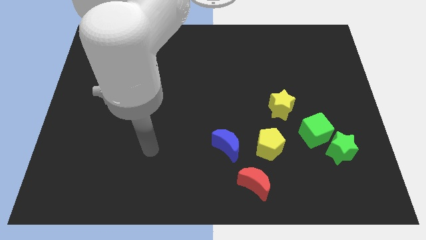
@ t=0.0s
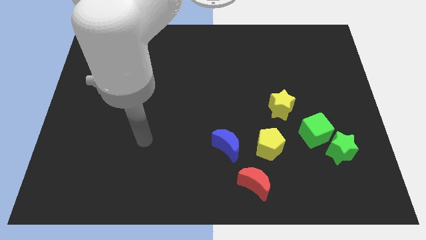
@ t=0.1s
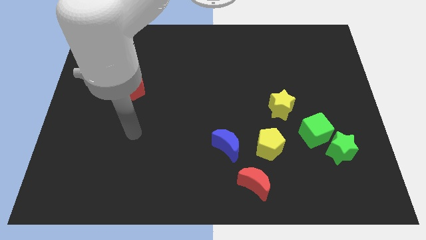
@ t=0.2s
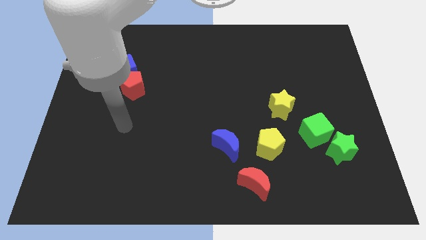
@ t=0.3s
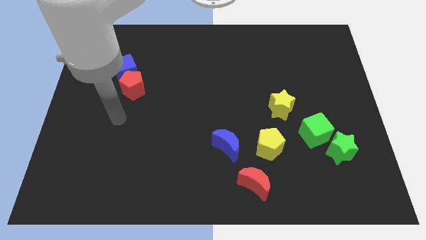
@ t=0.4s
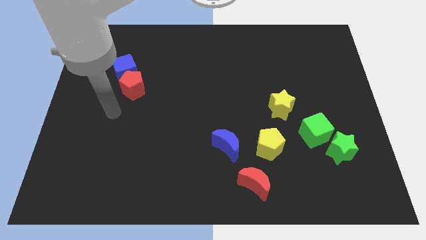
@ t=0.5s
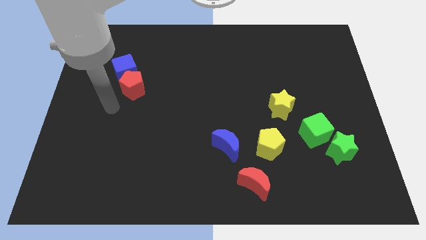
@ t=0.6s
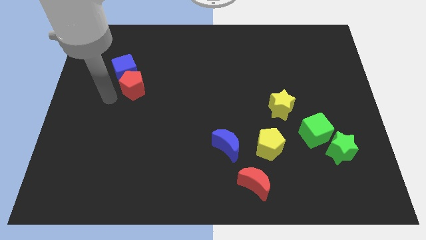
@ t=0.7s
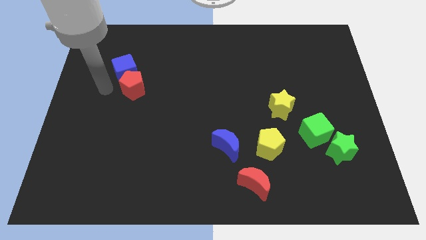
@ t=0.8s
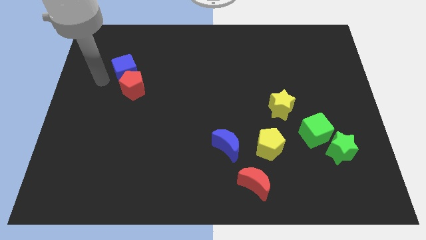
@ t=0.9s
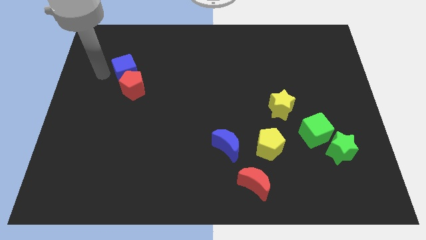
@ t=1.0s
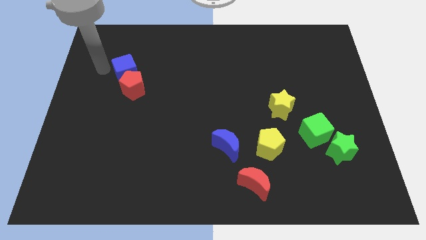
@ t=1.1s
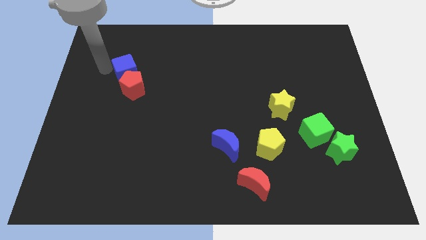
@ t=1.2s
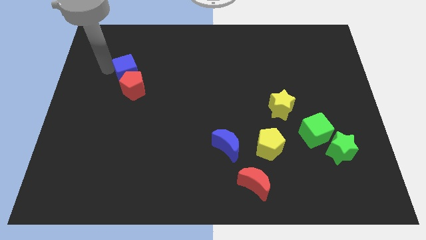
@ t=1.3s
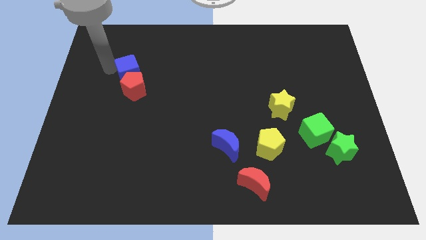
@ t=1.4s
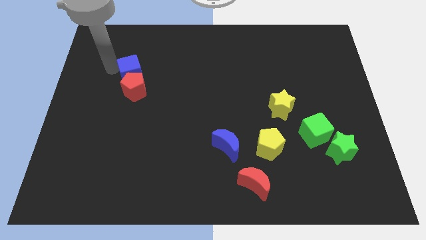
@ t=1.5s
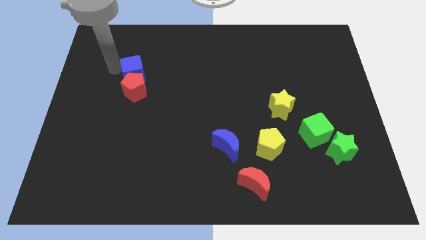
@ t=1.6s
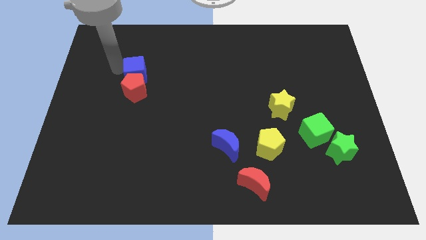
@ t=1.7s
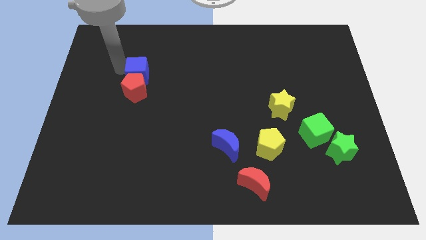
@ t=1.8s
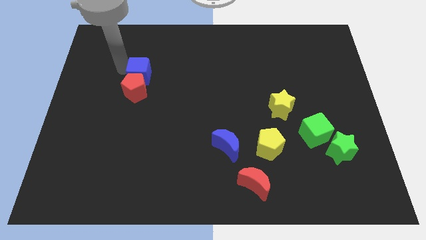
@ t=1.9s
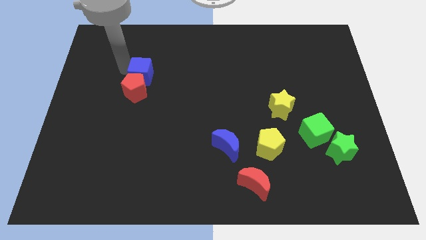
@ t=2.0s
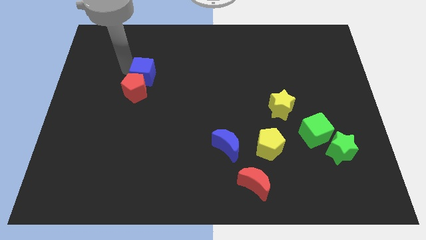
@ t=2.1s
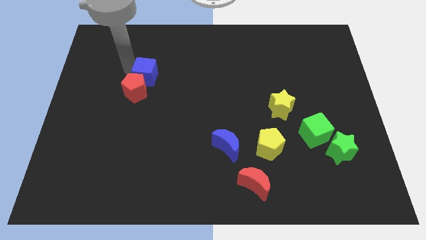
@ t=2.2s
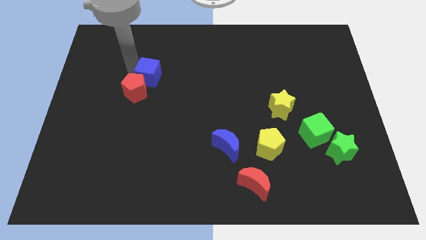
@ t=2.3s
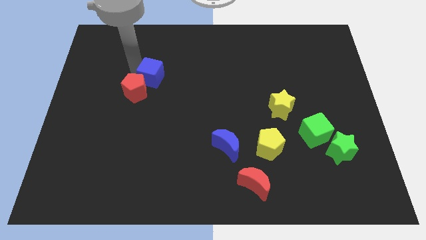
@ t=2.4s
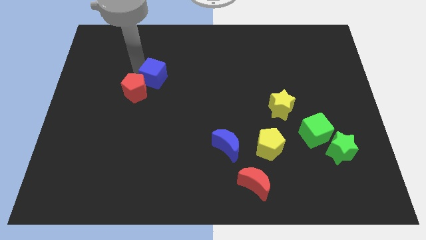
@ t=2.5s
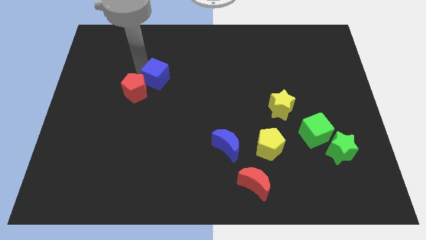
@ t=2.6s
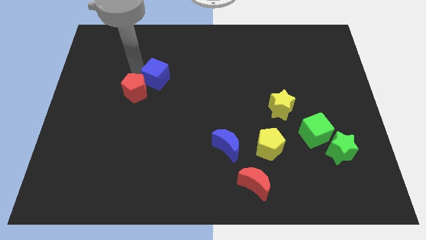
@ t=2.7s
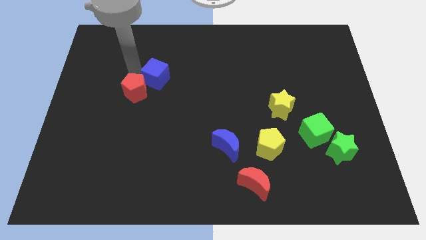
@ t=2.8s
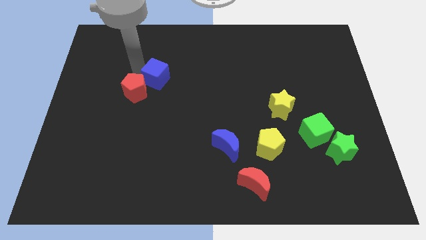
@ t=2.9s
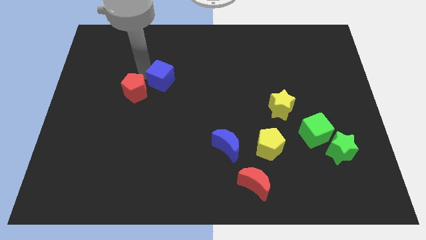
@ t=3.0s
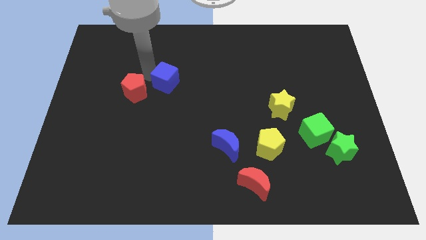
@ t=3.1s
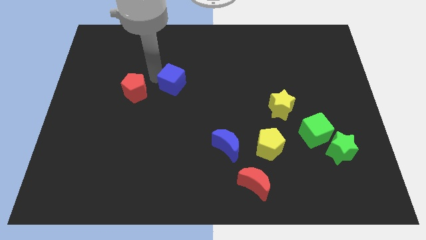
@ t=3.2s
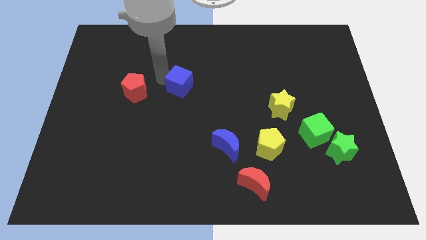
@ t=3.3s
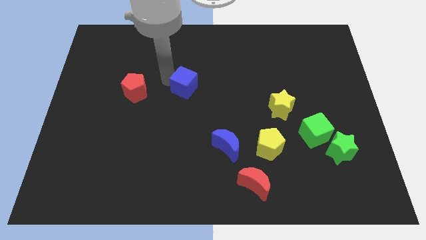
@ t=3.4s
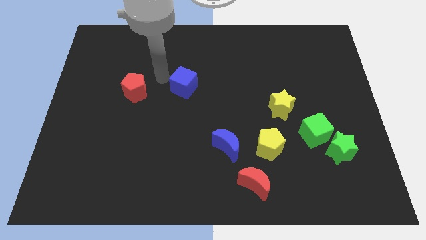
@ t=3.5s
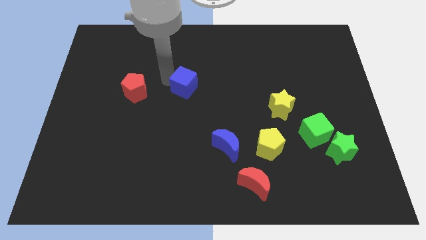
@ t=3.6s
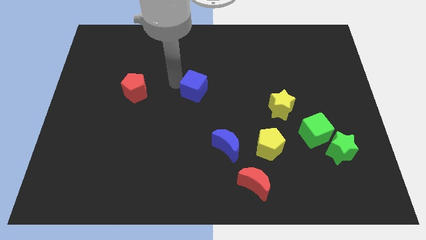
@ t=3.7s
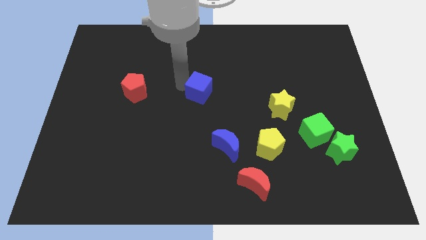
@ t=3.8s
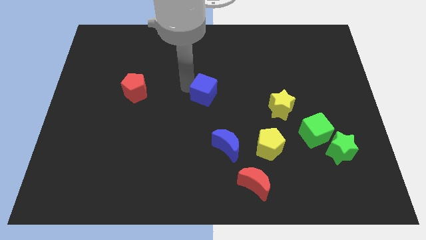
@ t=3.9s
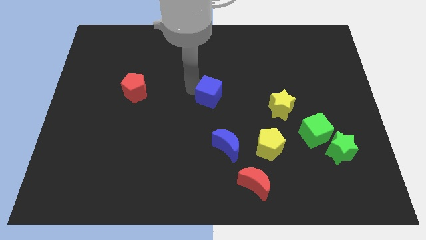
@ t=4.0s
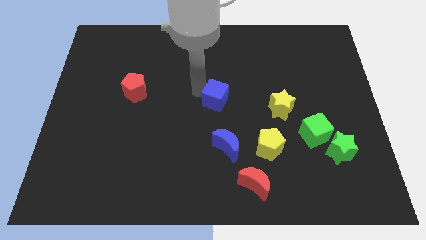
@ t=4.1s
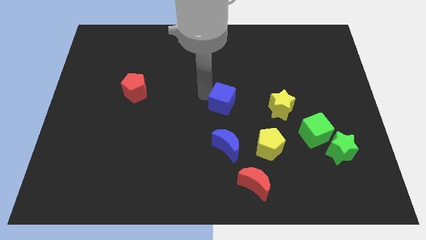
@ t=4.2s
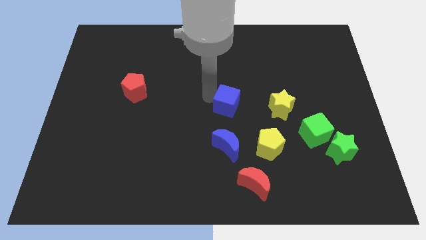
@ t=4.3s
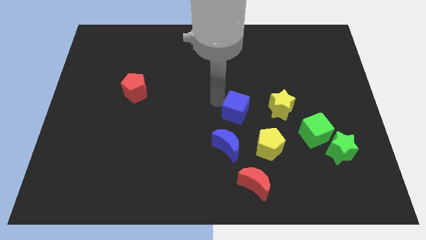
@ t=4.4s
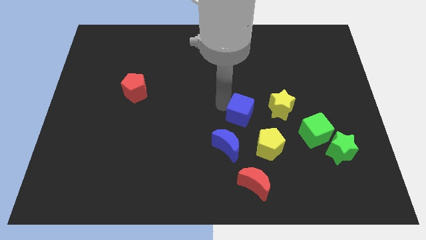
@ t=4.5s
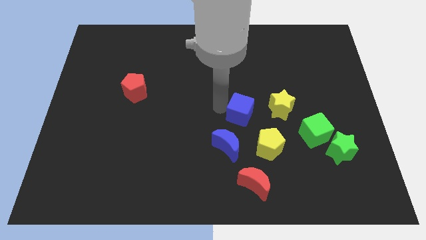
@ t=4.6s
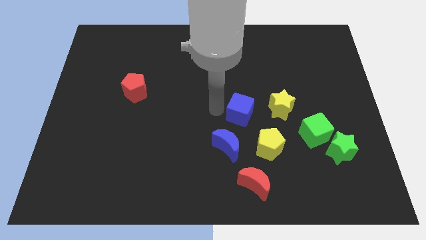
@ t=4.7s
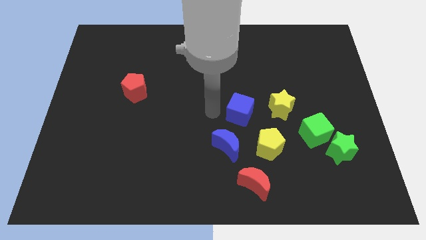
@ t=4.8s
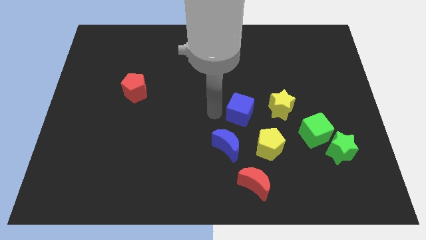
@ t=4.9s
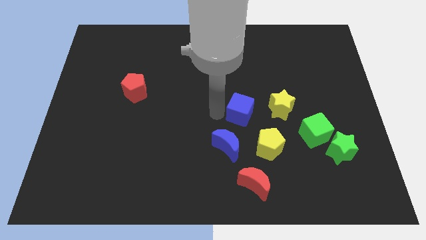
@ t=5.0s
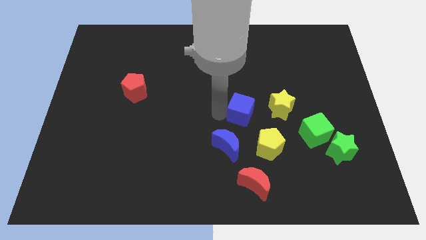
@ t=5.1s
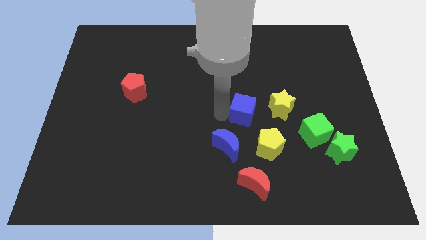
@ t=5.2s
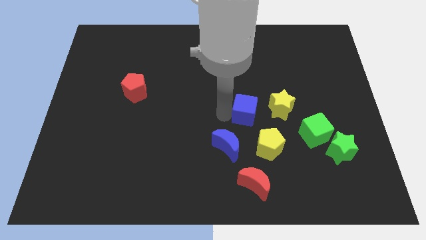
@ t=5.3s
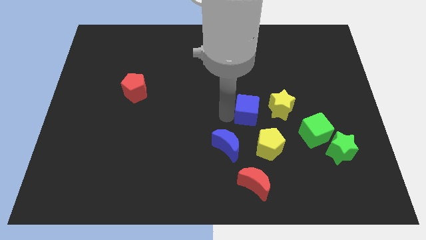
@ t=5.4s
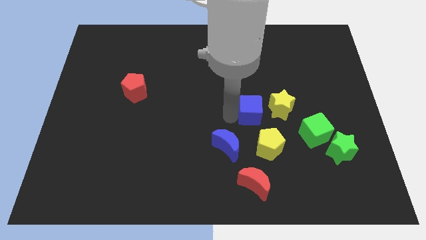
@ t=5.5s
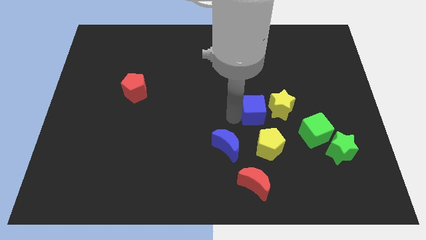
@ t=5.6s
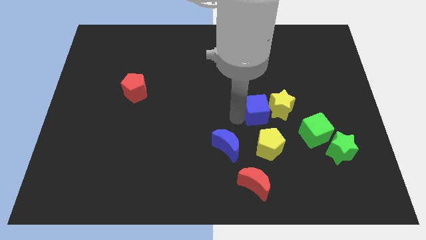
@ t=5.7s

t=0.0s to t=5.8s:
move the blue cube close to the yellow star

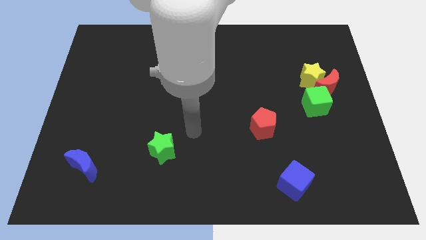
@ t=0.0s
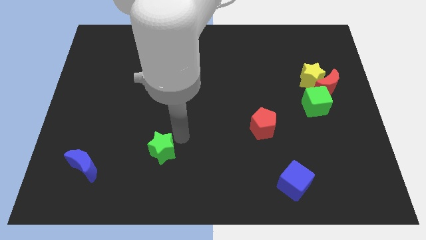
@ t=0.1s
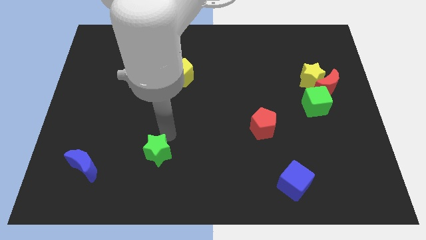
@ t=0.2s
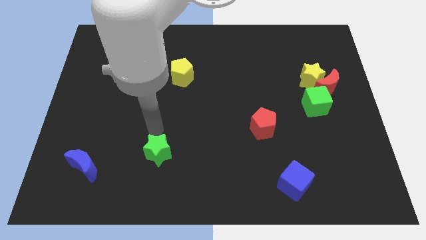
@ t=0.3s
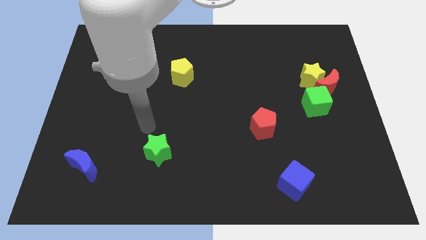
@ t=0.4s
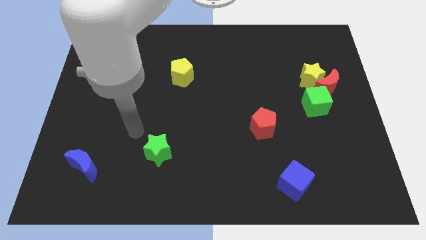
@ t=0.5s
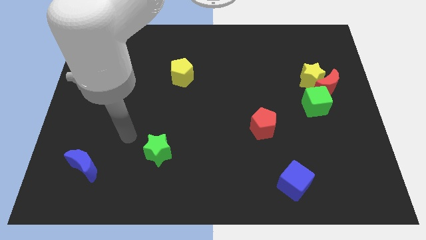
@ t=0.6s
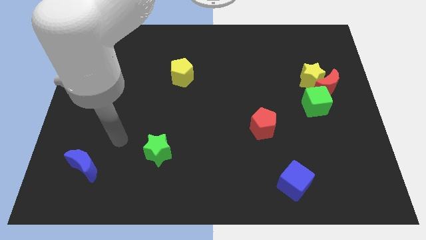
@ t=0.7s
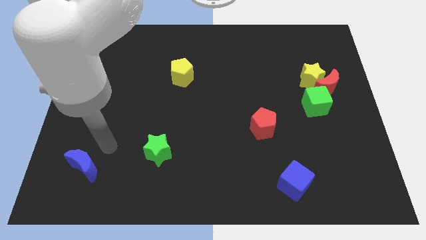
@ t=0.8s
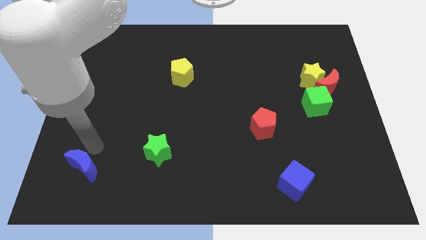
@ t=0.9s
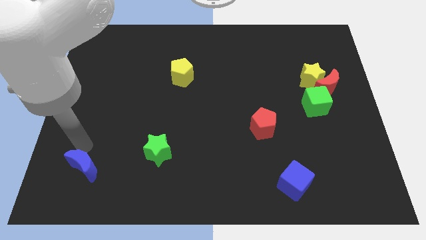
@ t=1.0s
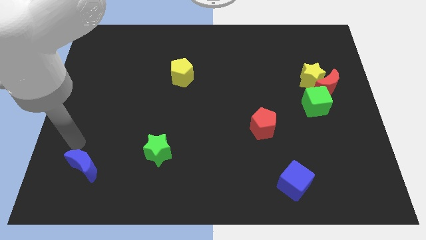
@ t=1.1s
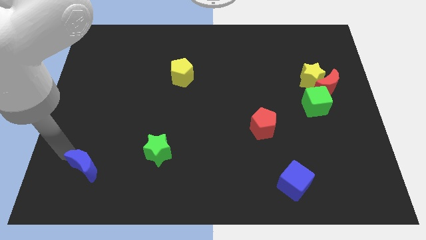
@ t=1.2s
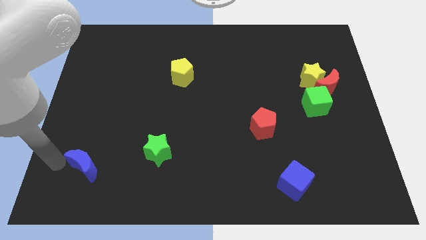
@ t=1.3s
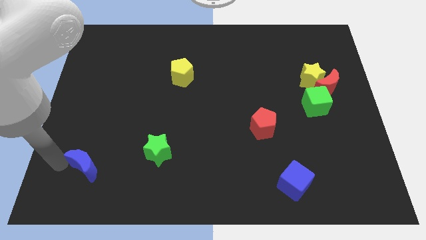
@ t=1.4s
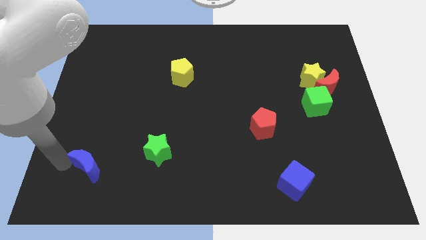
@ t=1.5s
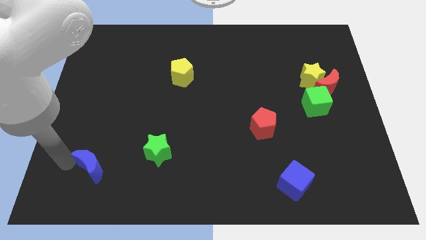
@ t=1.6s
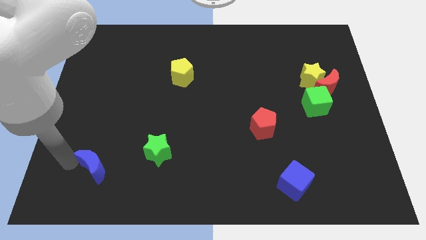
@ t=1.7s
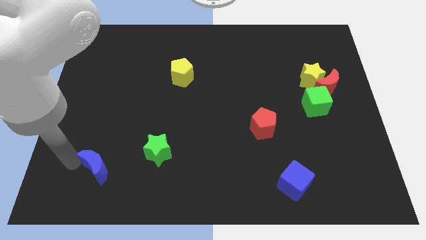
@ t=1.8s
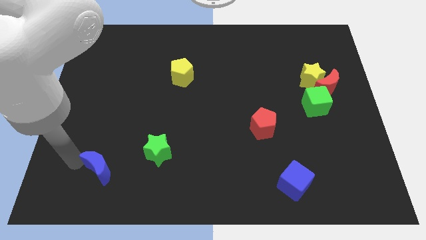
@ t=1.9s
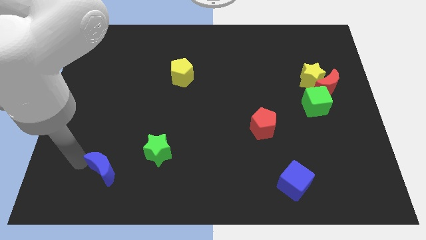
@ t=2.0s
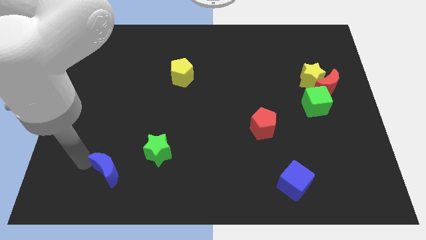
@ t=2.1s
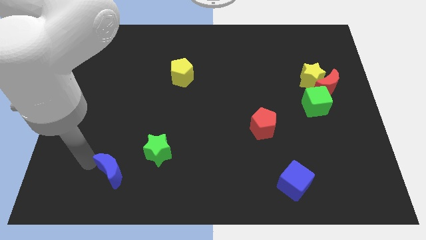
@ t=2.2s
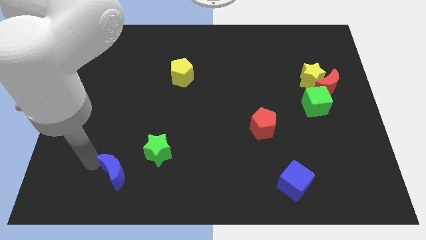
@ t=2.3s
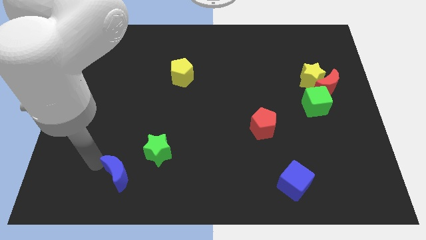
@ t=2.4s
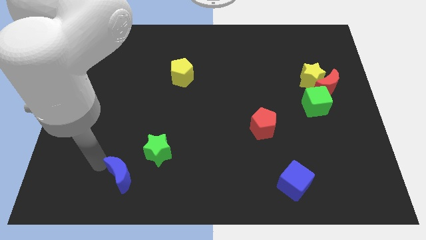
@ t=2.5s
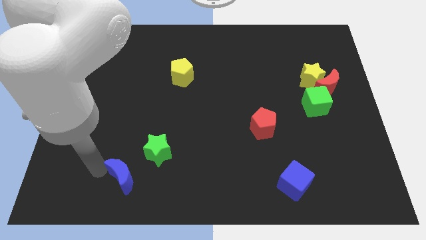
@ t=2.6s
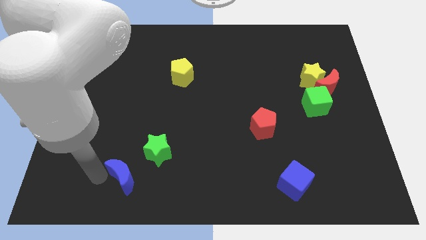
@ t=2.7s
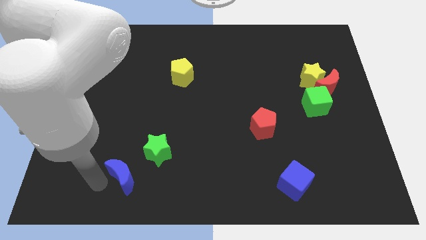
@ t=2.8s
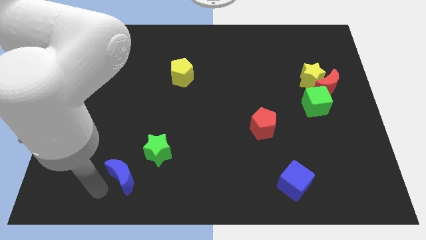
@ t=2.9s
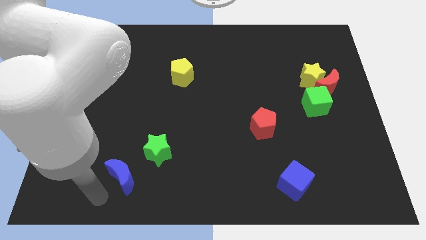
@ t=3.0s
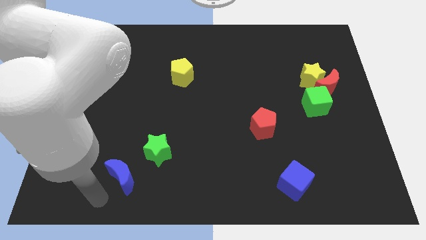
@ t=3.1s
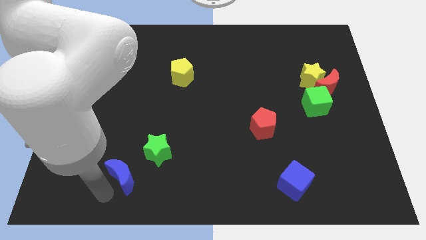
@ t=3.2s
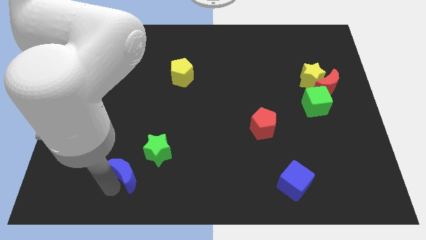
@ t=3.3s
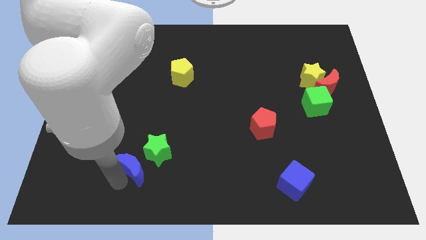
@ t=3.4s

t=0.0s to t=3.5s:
slide the blue moon next to the green star
